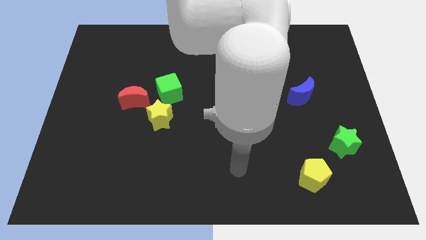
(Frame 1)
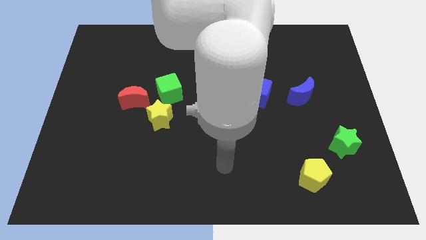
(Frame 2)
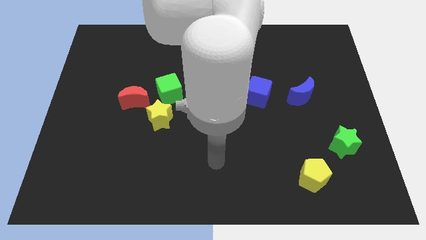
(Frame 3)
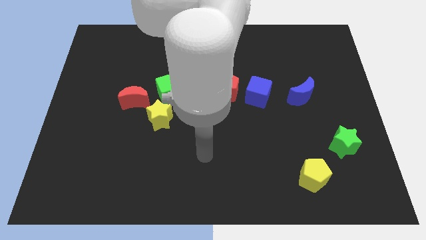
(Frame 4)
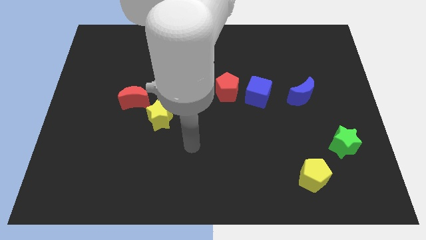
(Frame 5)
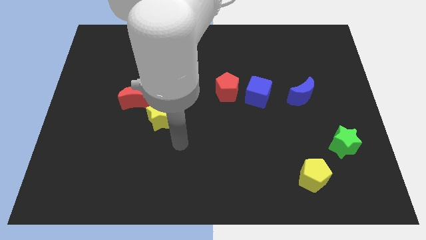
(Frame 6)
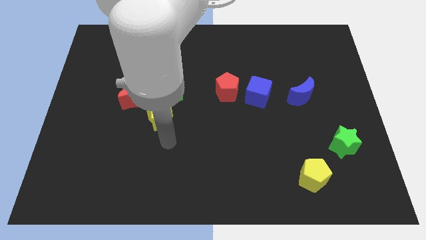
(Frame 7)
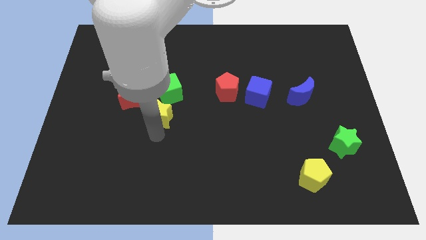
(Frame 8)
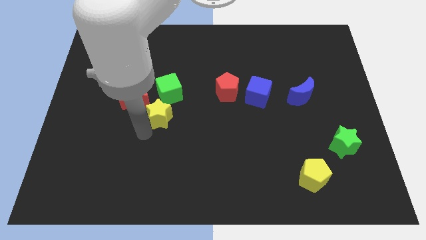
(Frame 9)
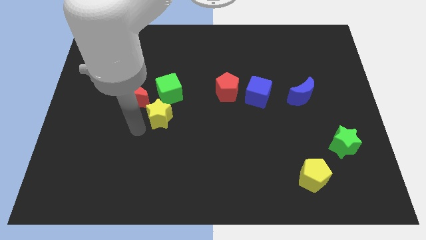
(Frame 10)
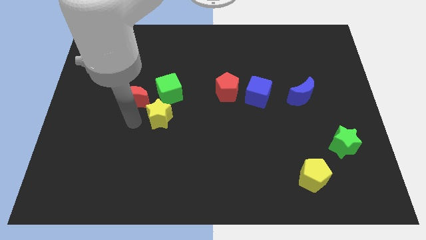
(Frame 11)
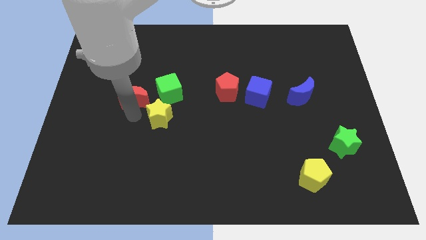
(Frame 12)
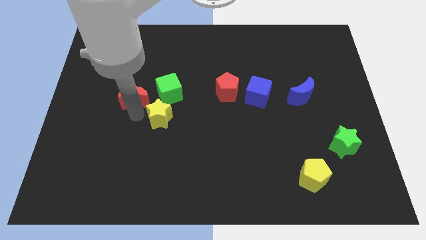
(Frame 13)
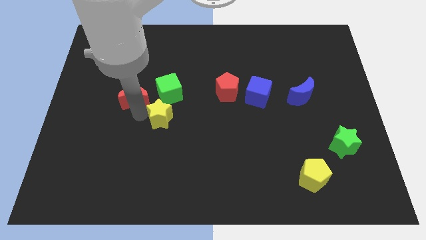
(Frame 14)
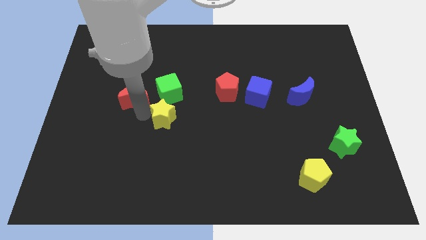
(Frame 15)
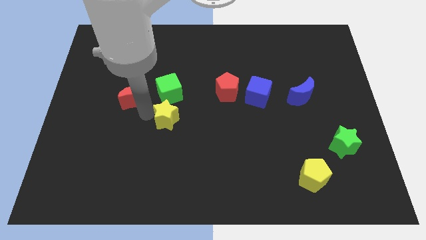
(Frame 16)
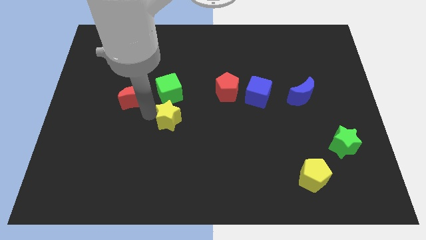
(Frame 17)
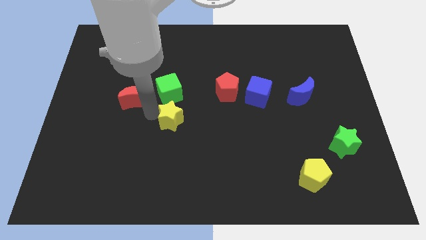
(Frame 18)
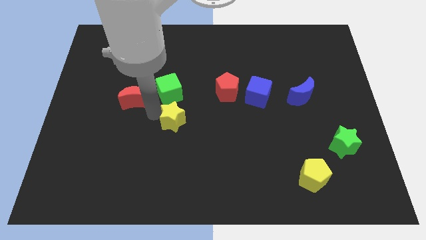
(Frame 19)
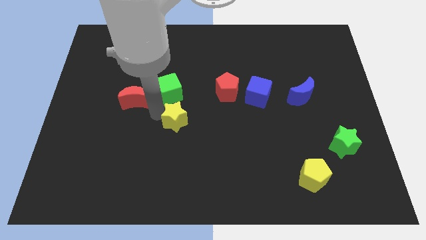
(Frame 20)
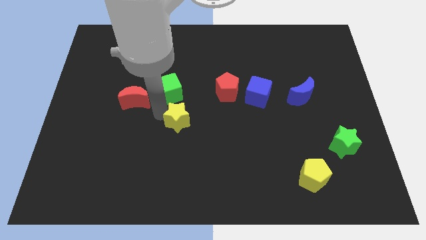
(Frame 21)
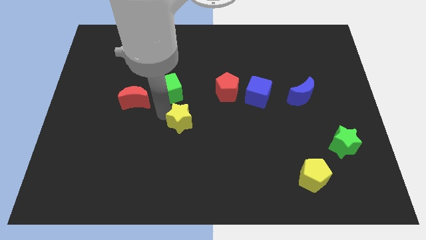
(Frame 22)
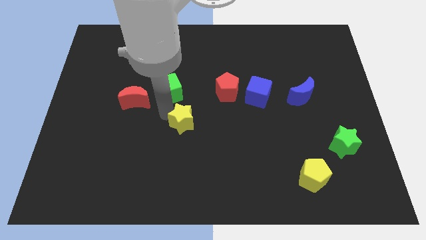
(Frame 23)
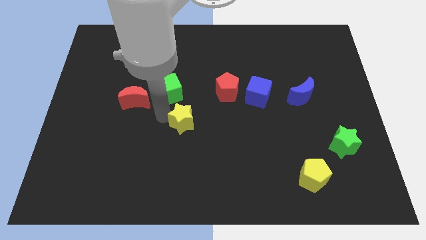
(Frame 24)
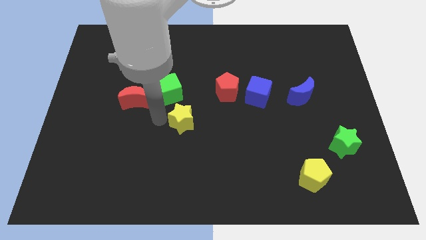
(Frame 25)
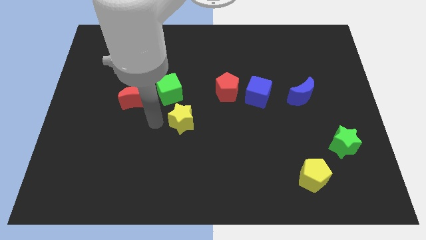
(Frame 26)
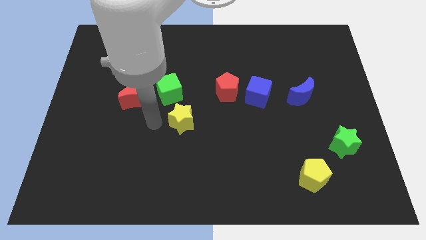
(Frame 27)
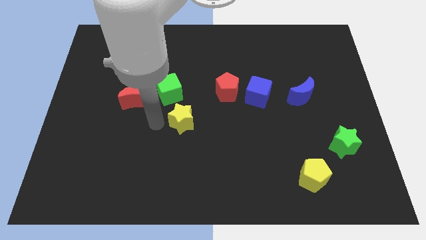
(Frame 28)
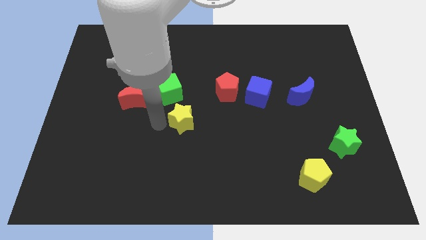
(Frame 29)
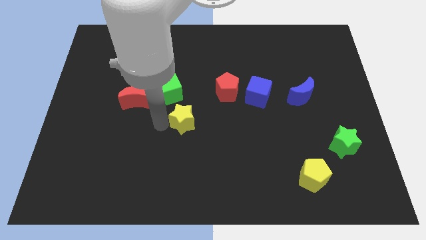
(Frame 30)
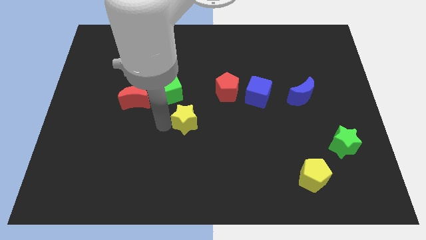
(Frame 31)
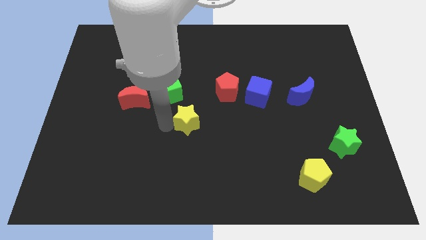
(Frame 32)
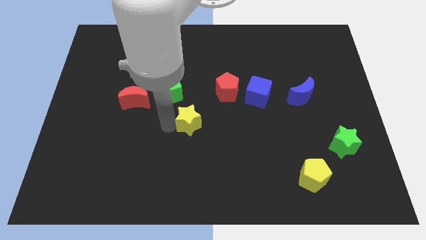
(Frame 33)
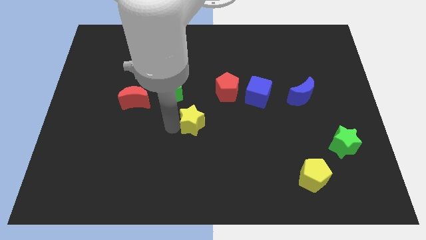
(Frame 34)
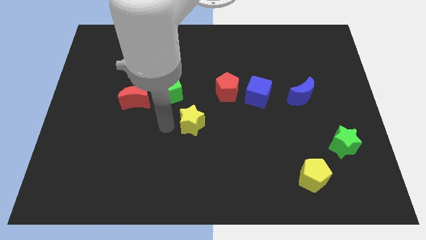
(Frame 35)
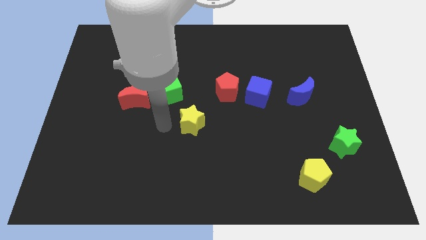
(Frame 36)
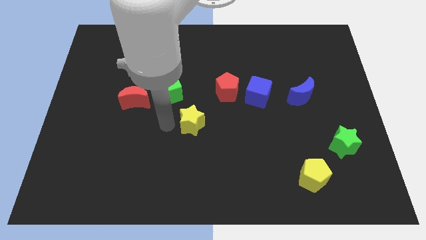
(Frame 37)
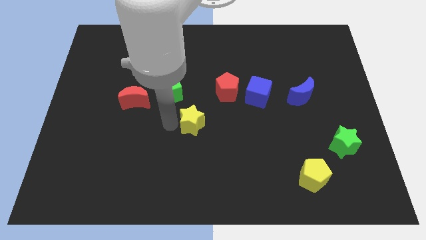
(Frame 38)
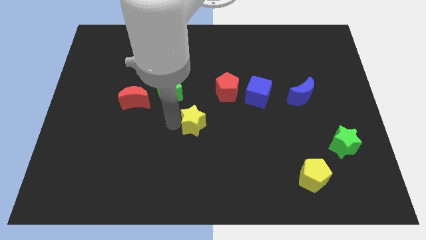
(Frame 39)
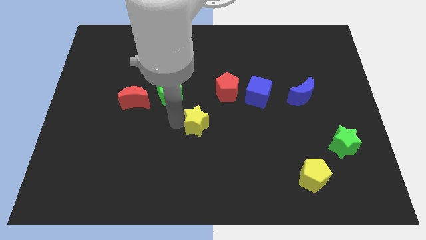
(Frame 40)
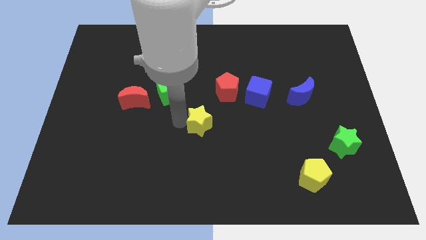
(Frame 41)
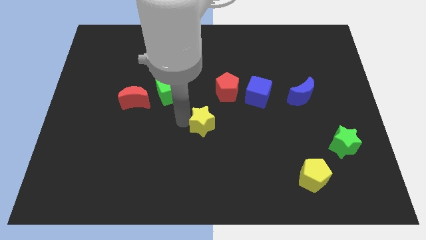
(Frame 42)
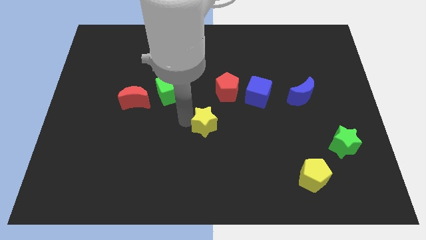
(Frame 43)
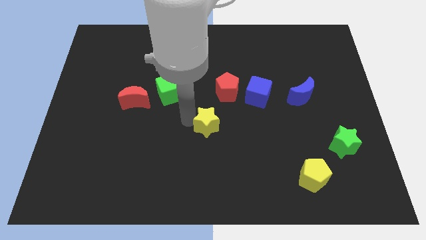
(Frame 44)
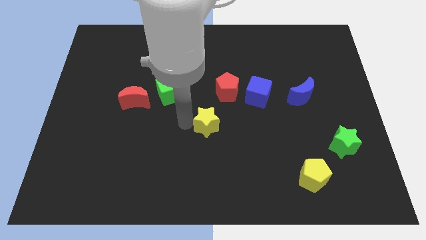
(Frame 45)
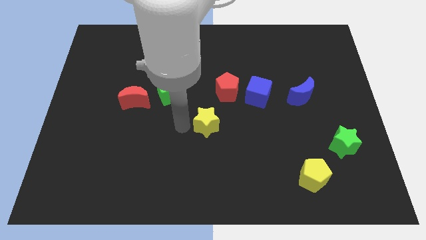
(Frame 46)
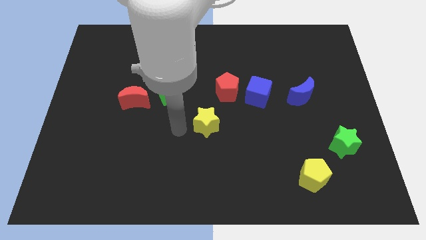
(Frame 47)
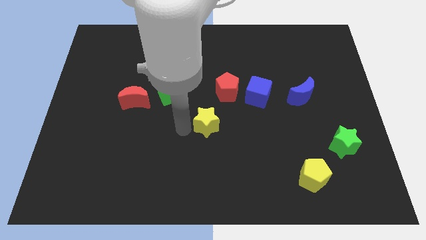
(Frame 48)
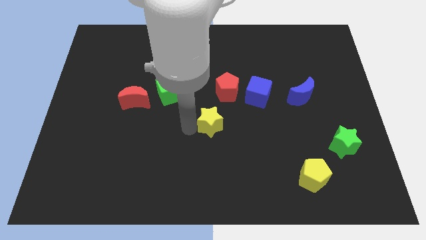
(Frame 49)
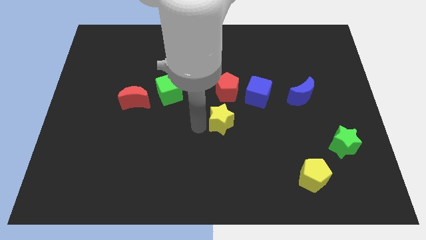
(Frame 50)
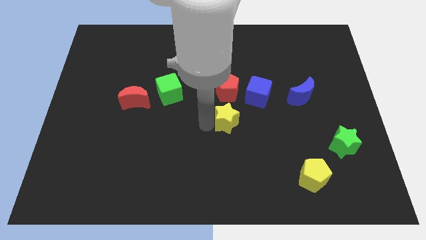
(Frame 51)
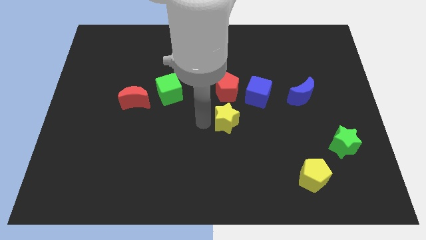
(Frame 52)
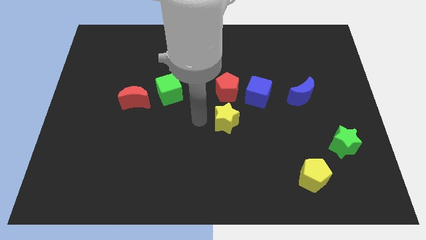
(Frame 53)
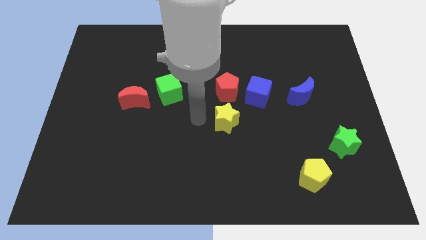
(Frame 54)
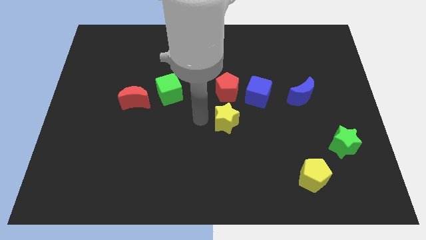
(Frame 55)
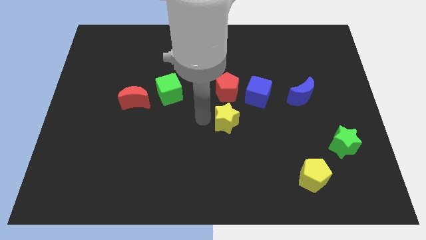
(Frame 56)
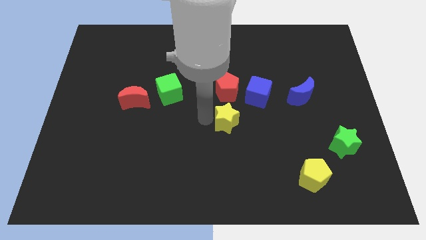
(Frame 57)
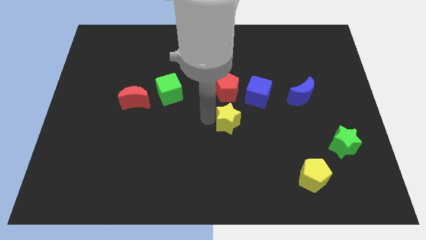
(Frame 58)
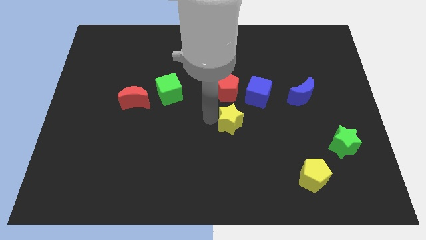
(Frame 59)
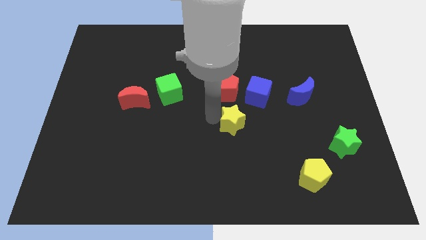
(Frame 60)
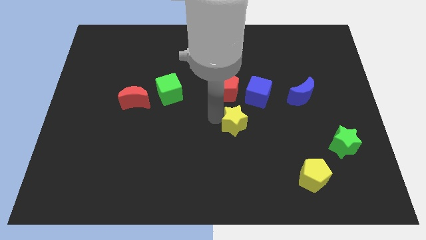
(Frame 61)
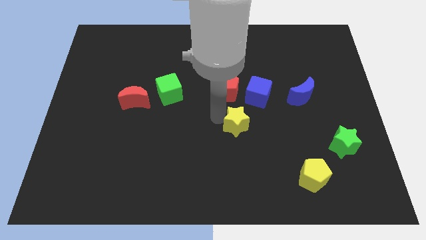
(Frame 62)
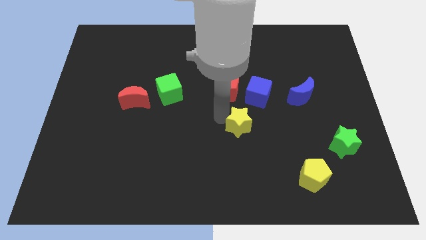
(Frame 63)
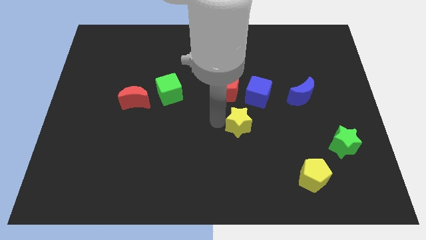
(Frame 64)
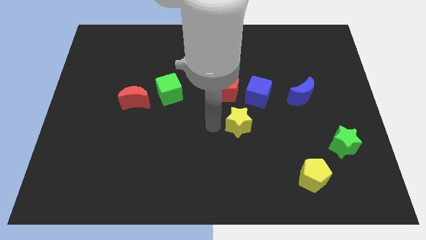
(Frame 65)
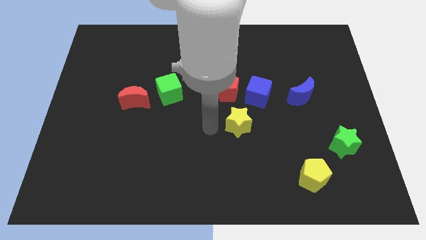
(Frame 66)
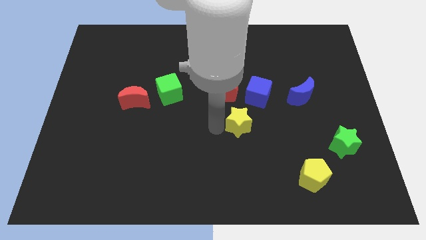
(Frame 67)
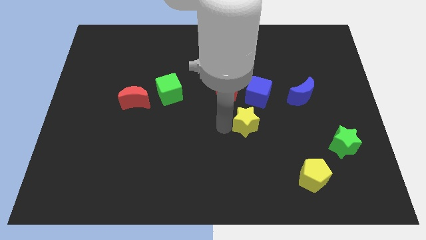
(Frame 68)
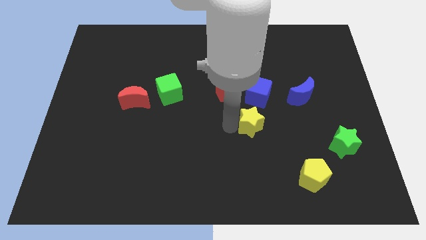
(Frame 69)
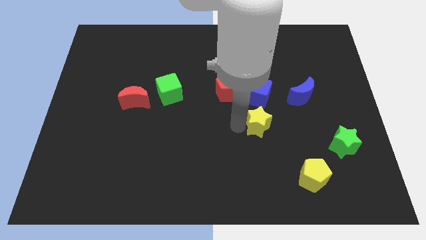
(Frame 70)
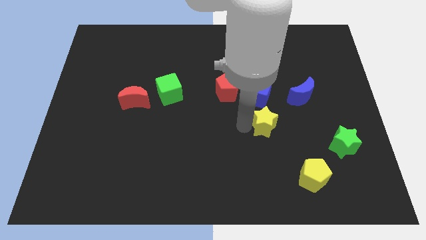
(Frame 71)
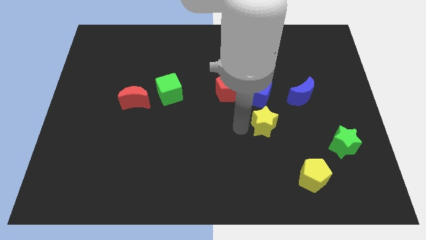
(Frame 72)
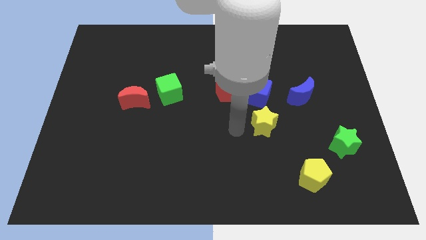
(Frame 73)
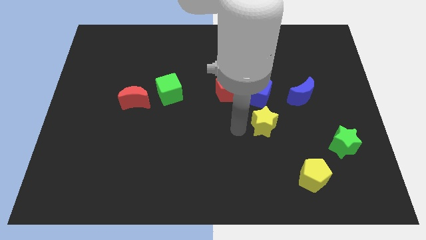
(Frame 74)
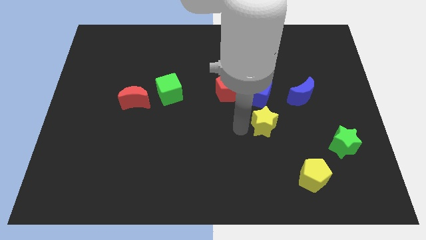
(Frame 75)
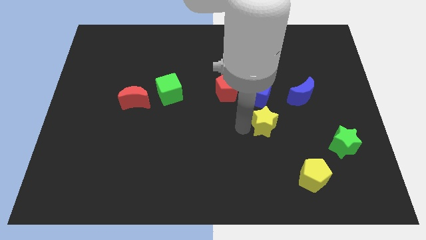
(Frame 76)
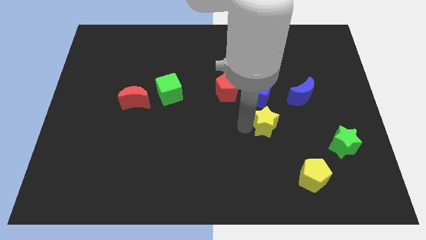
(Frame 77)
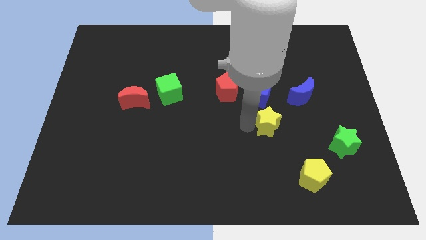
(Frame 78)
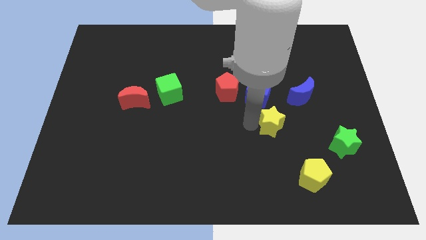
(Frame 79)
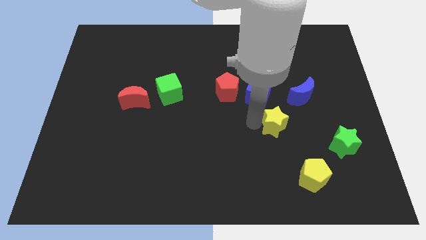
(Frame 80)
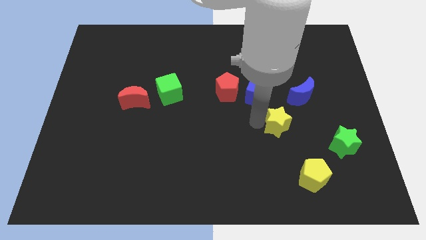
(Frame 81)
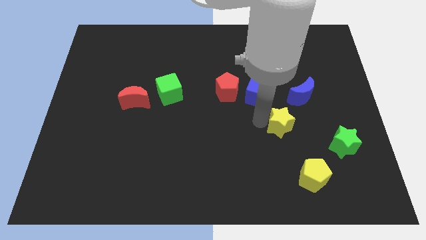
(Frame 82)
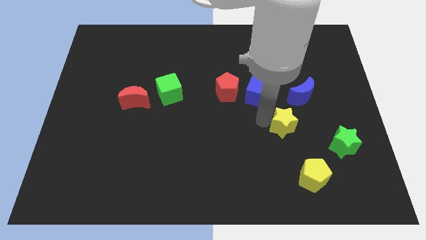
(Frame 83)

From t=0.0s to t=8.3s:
move the yellow star to the top side of the yellow pentagon
